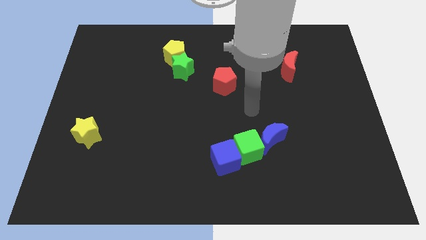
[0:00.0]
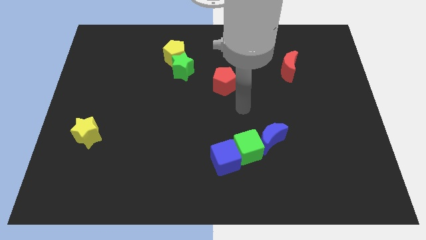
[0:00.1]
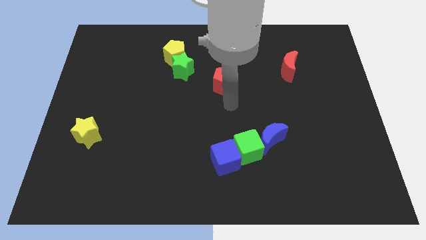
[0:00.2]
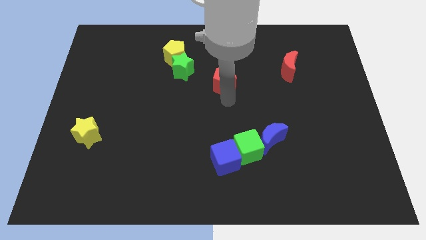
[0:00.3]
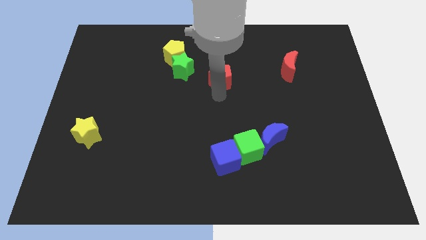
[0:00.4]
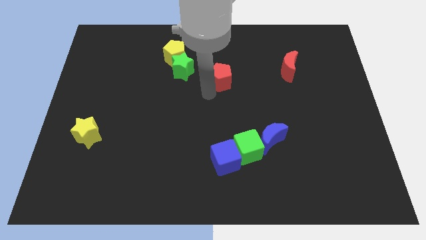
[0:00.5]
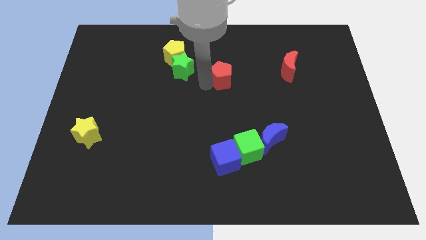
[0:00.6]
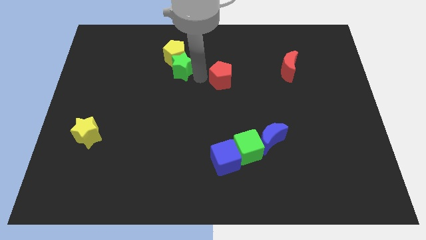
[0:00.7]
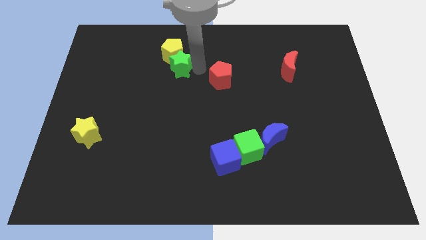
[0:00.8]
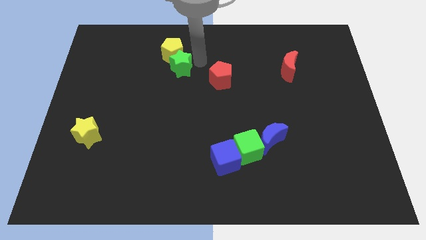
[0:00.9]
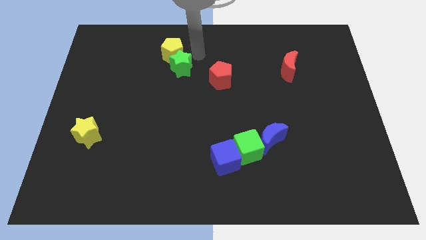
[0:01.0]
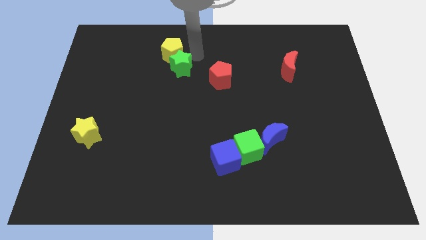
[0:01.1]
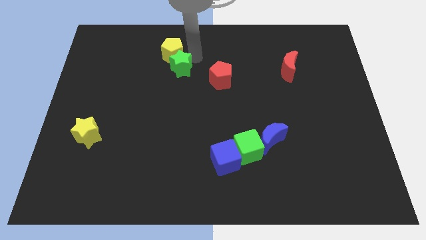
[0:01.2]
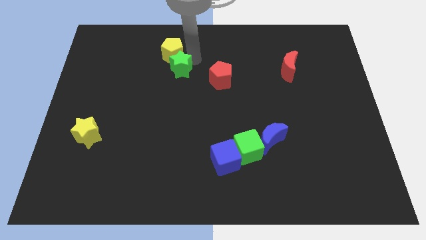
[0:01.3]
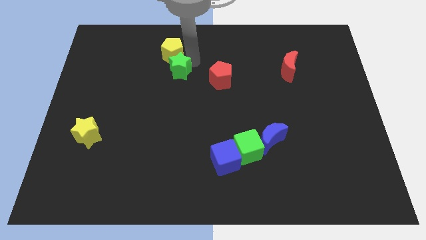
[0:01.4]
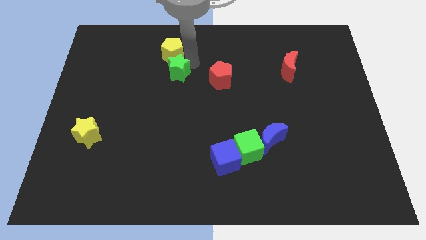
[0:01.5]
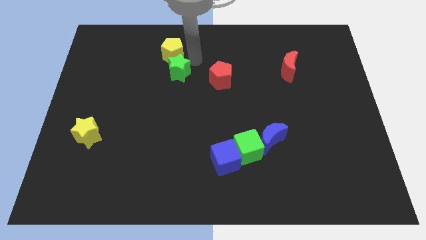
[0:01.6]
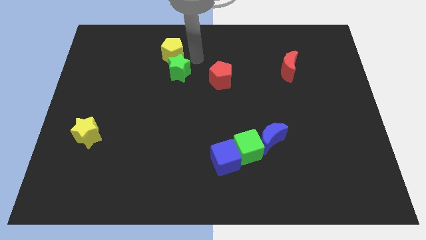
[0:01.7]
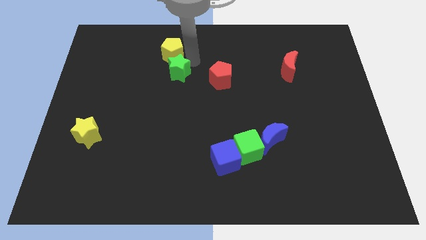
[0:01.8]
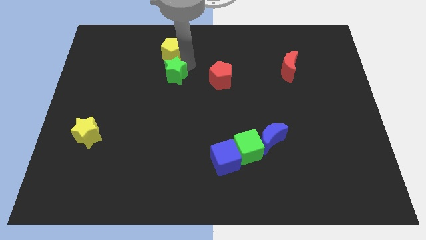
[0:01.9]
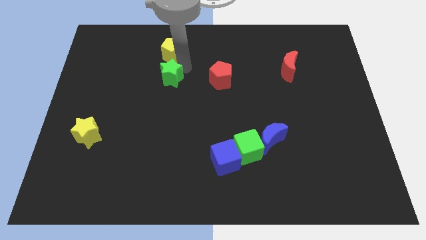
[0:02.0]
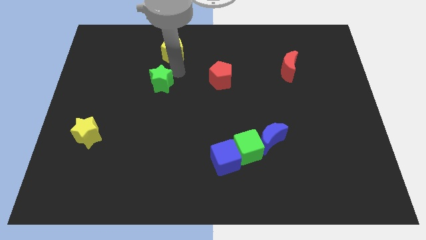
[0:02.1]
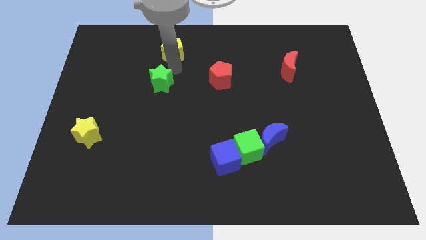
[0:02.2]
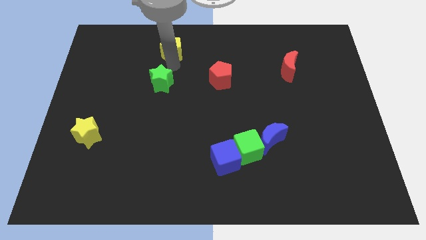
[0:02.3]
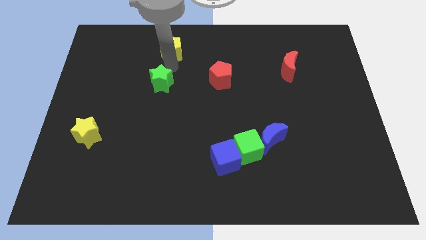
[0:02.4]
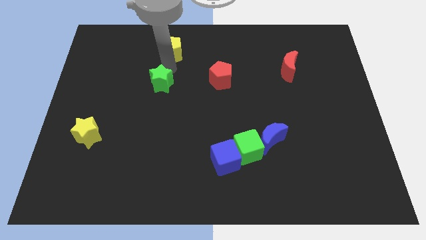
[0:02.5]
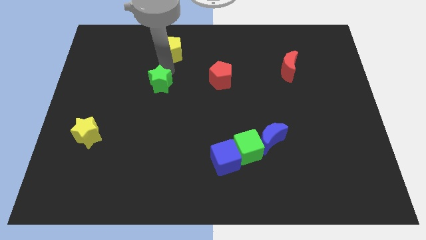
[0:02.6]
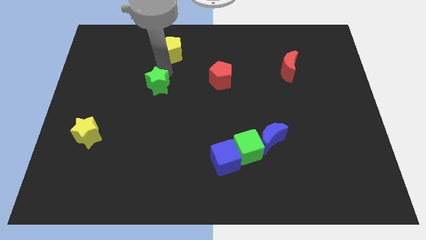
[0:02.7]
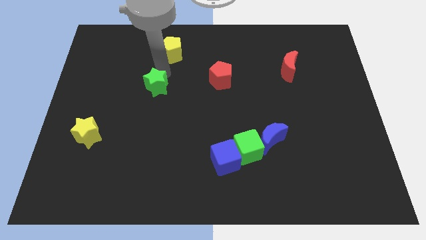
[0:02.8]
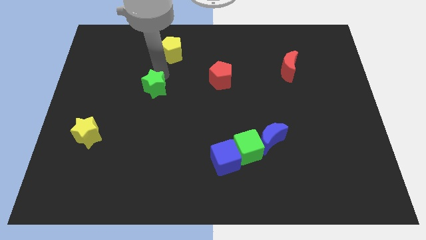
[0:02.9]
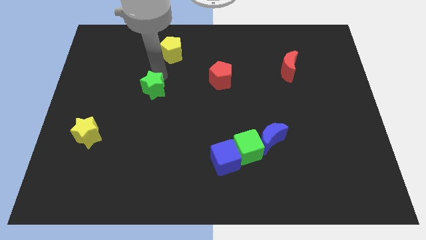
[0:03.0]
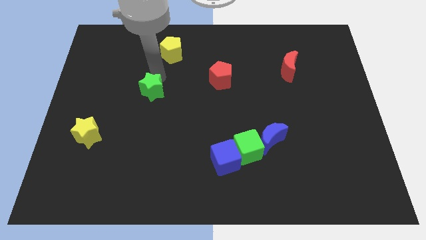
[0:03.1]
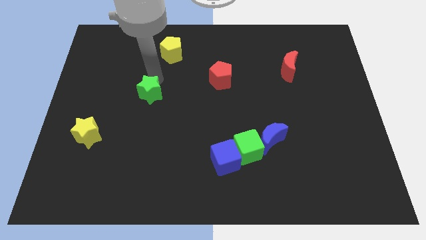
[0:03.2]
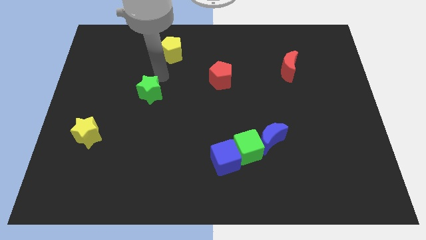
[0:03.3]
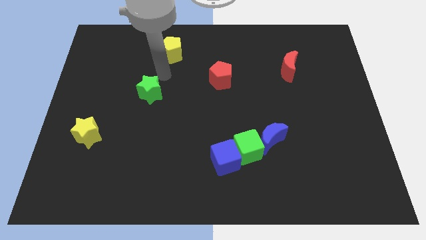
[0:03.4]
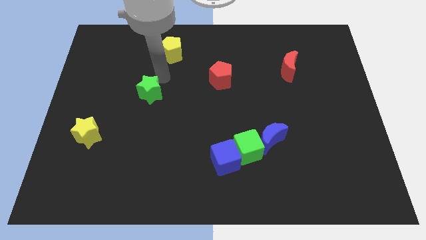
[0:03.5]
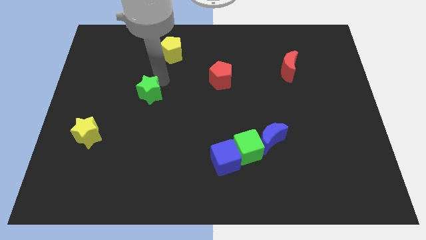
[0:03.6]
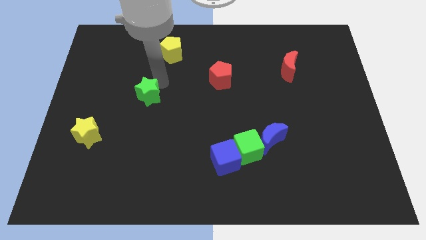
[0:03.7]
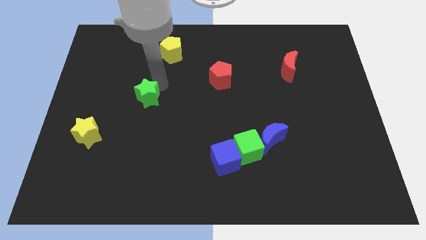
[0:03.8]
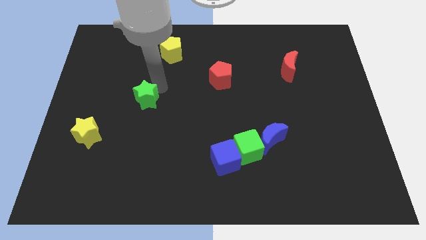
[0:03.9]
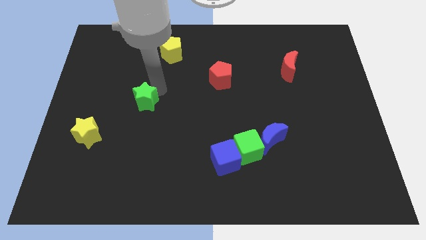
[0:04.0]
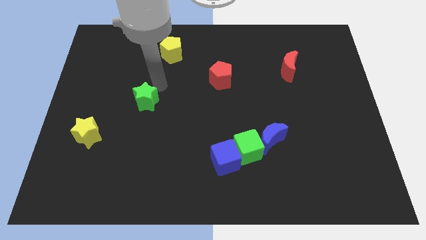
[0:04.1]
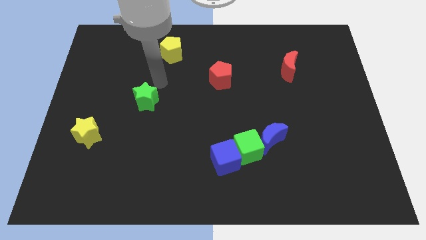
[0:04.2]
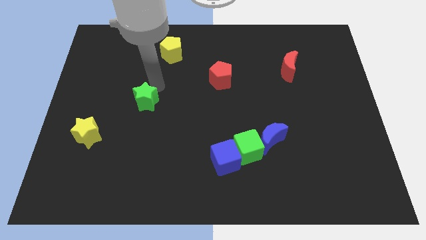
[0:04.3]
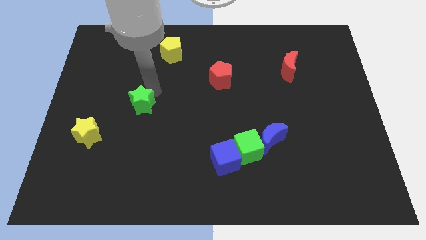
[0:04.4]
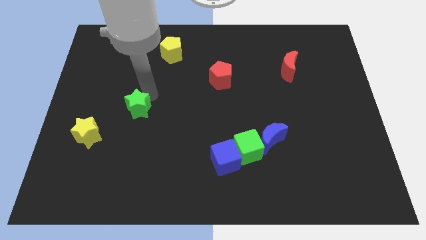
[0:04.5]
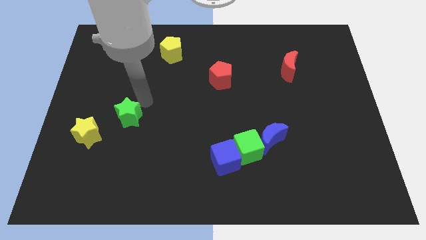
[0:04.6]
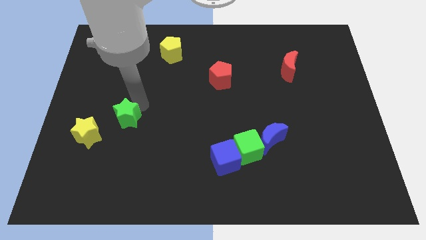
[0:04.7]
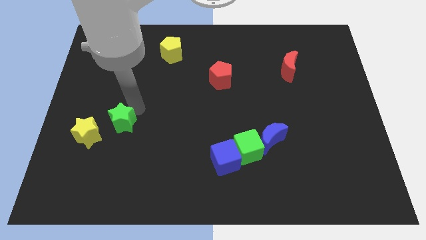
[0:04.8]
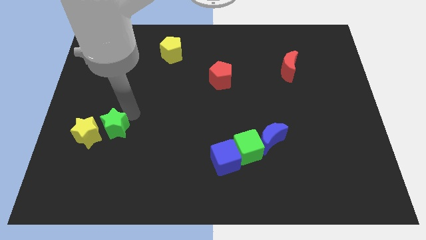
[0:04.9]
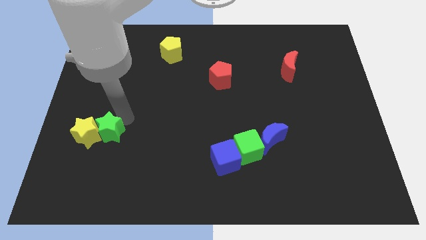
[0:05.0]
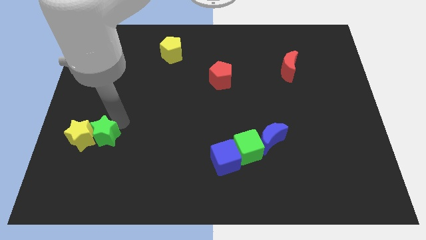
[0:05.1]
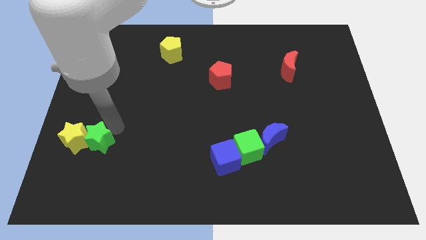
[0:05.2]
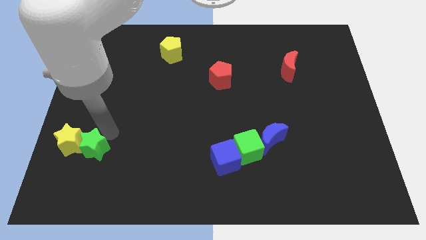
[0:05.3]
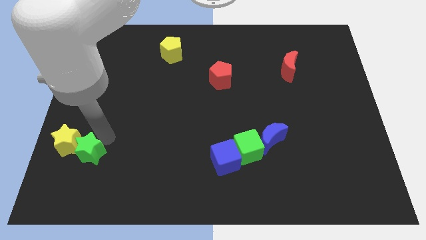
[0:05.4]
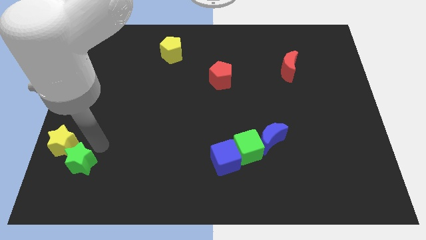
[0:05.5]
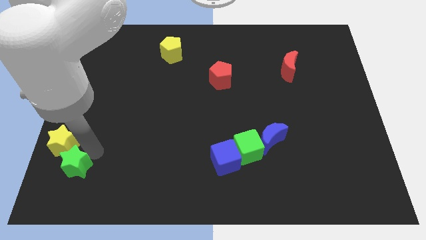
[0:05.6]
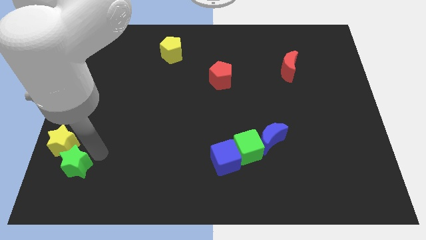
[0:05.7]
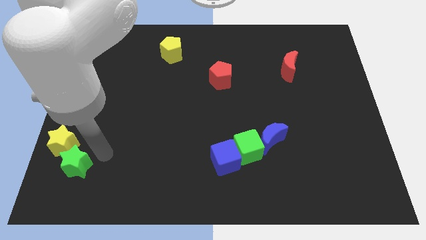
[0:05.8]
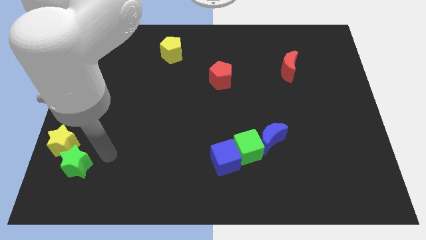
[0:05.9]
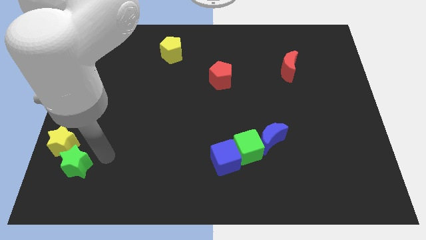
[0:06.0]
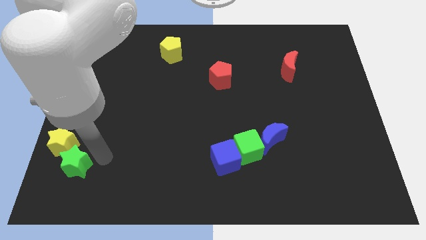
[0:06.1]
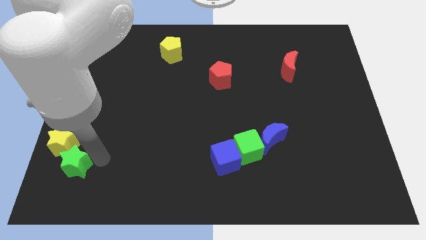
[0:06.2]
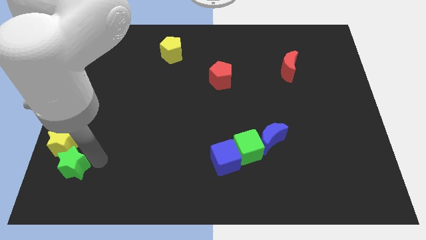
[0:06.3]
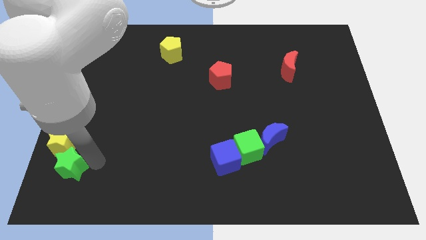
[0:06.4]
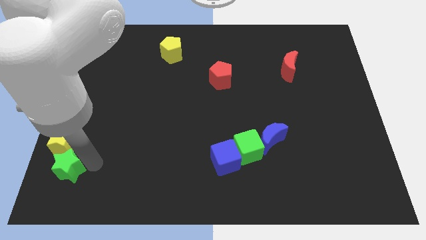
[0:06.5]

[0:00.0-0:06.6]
move the green star to the lower left corner

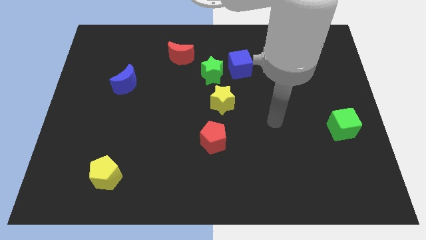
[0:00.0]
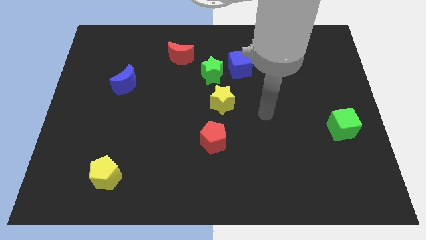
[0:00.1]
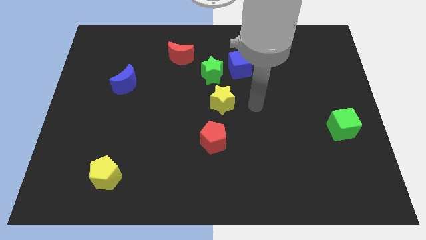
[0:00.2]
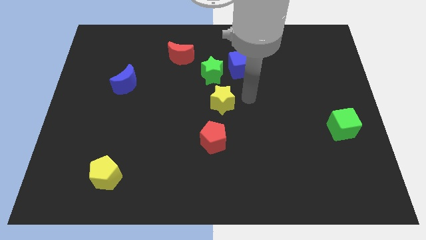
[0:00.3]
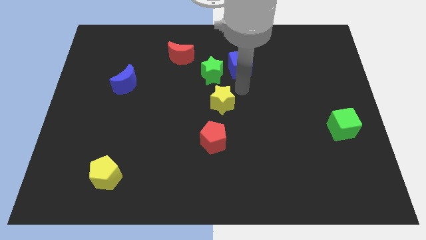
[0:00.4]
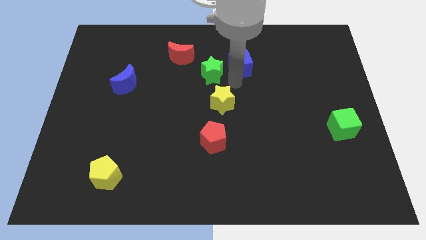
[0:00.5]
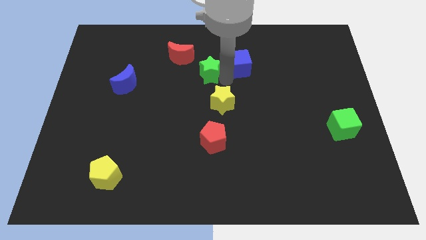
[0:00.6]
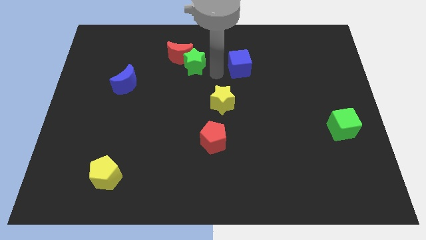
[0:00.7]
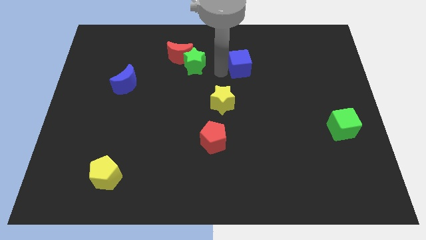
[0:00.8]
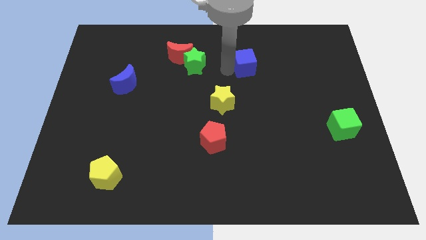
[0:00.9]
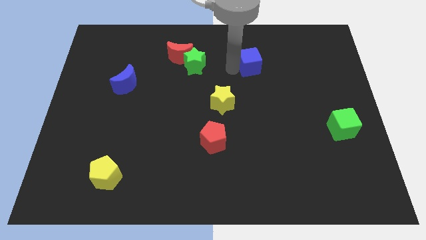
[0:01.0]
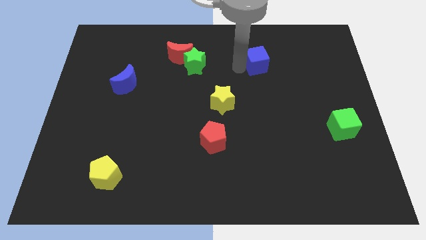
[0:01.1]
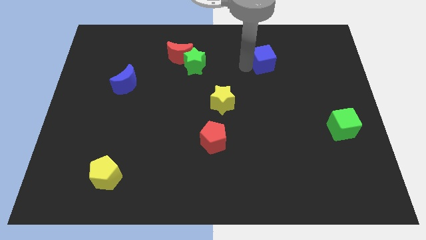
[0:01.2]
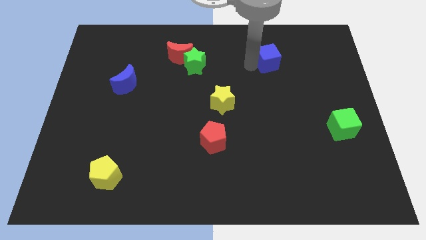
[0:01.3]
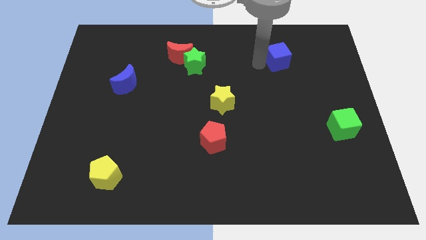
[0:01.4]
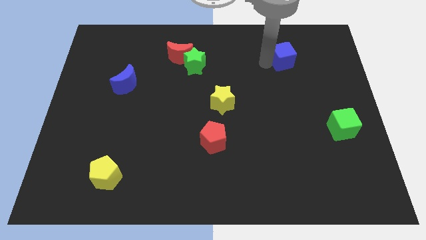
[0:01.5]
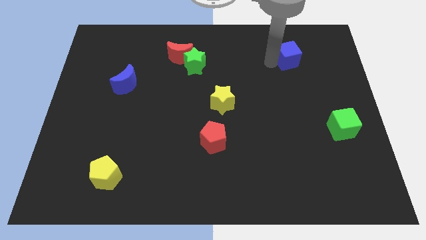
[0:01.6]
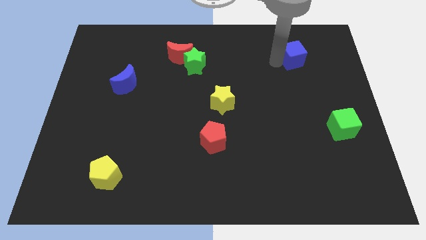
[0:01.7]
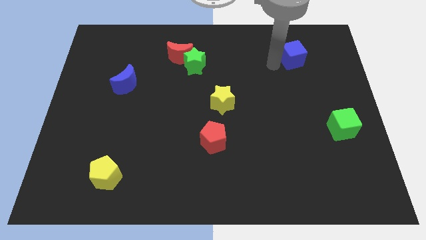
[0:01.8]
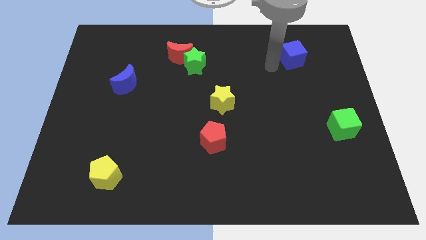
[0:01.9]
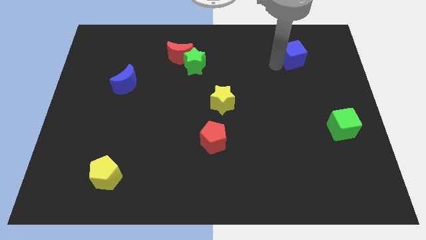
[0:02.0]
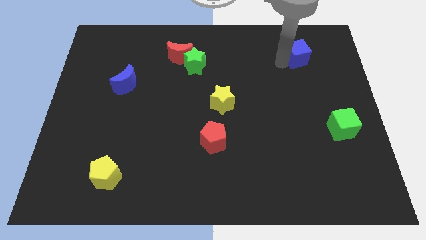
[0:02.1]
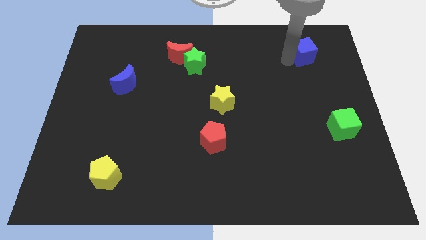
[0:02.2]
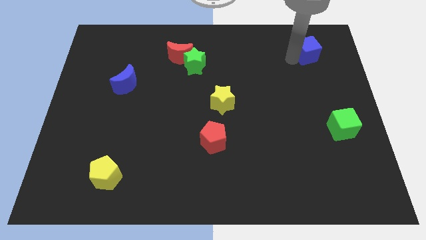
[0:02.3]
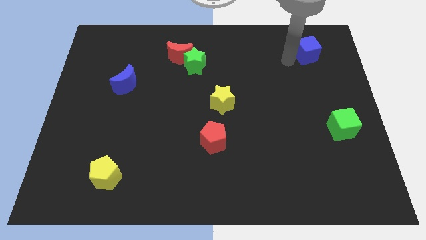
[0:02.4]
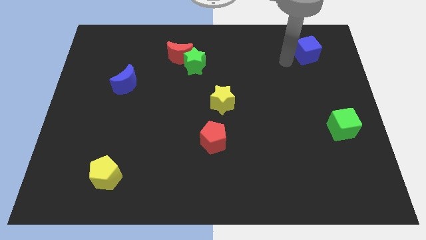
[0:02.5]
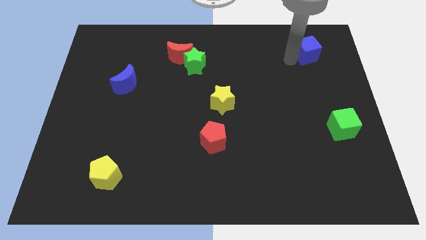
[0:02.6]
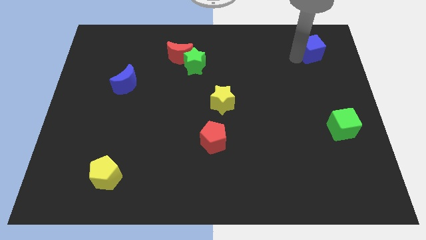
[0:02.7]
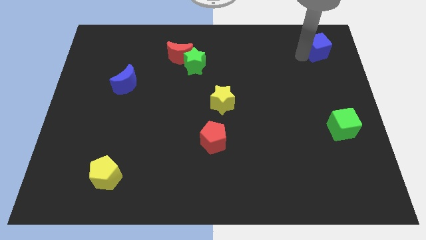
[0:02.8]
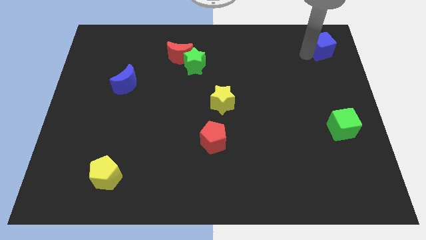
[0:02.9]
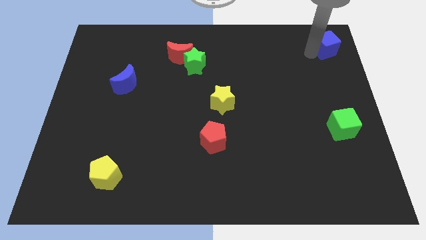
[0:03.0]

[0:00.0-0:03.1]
put the blue cube to the top right
